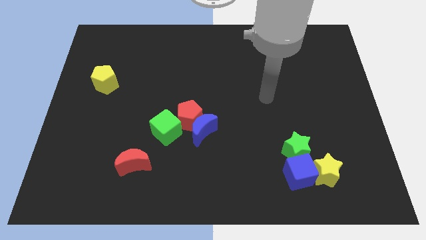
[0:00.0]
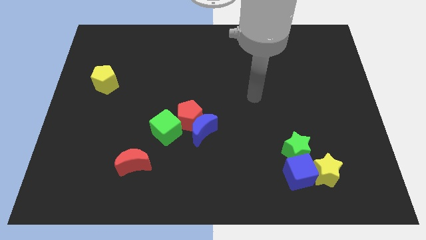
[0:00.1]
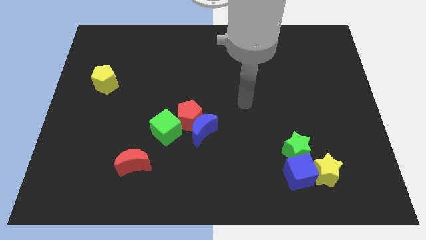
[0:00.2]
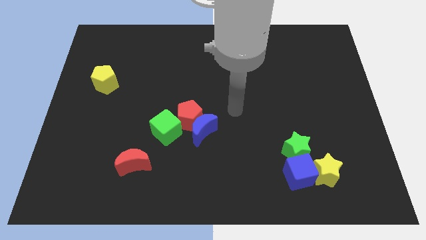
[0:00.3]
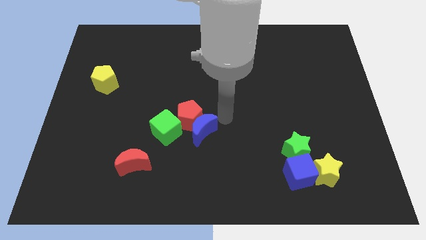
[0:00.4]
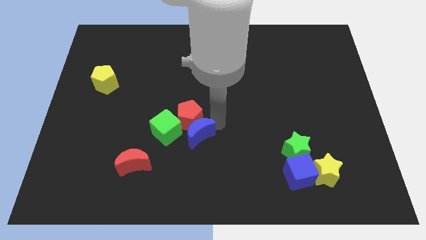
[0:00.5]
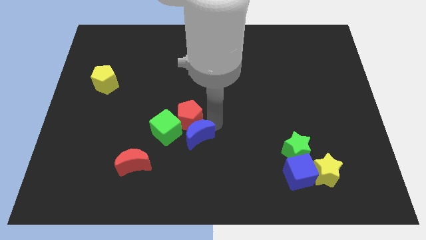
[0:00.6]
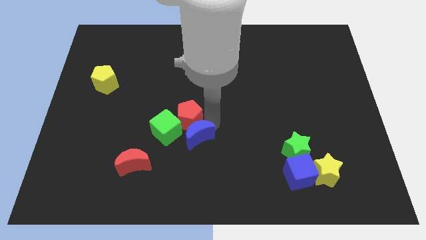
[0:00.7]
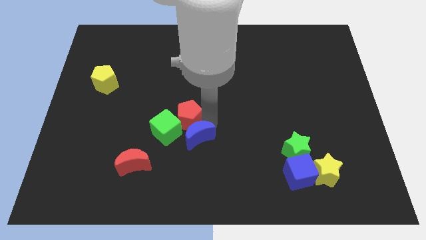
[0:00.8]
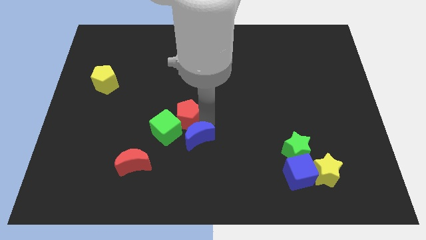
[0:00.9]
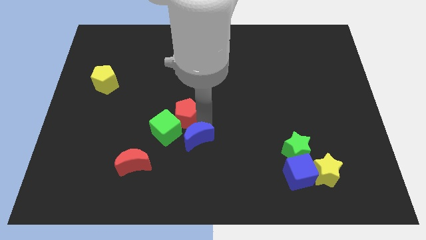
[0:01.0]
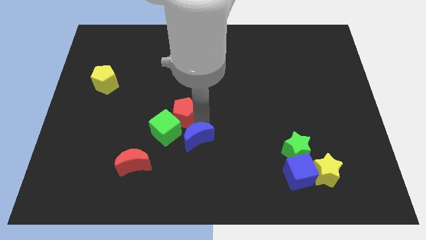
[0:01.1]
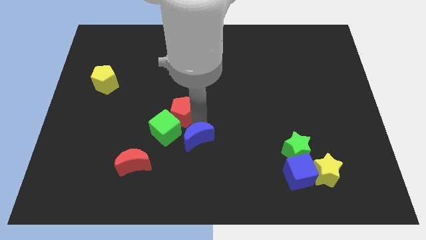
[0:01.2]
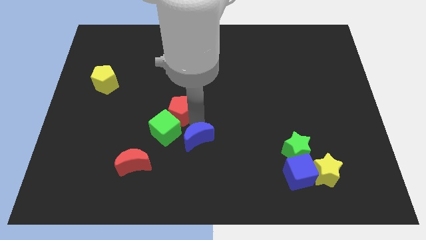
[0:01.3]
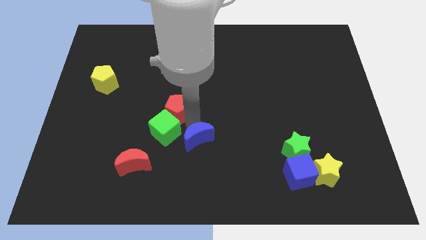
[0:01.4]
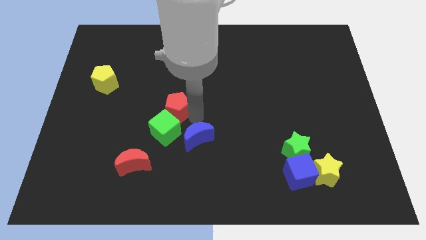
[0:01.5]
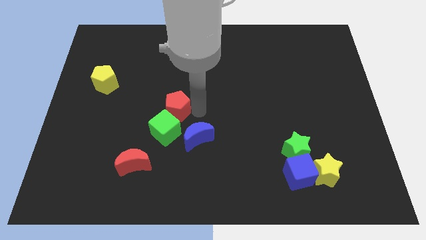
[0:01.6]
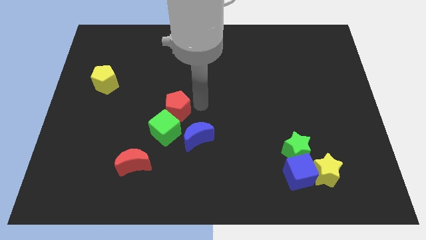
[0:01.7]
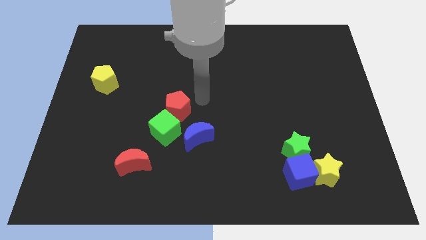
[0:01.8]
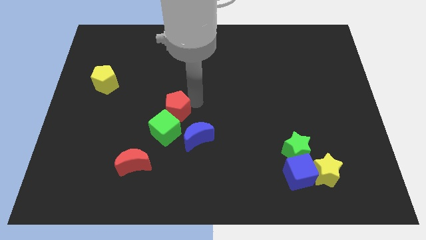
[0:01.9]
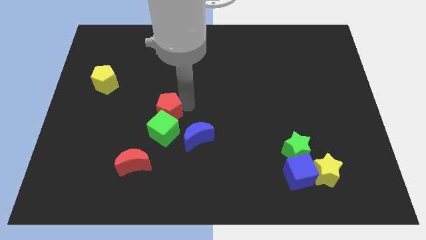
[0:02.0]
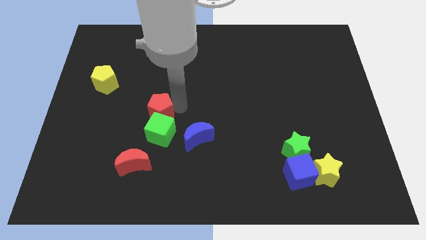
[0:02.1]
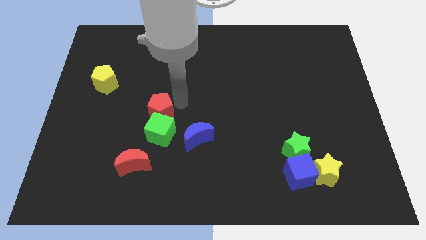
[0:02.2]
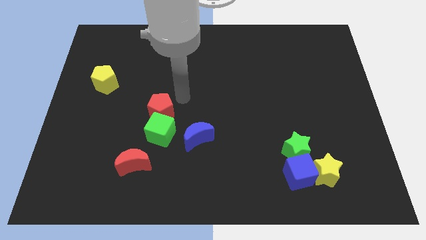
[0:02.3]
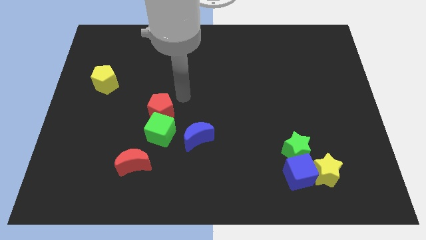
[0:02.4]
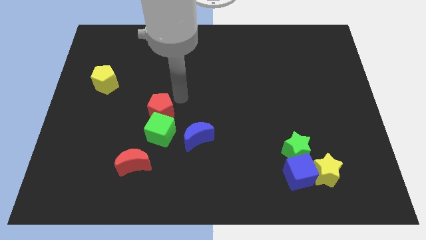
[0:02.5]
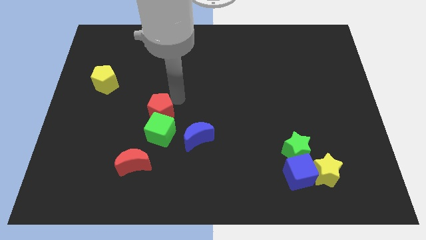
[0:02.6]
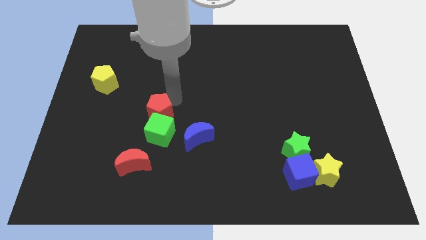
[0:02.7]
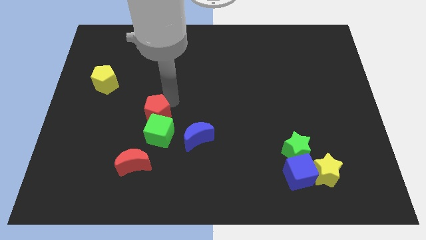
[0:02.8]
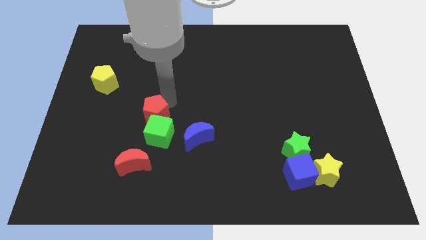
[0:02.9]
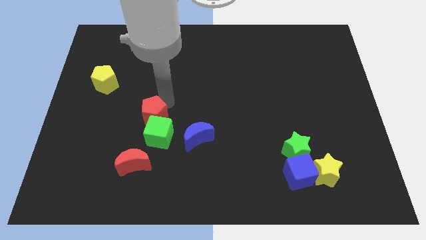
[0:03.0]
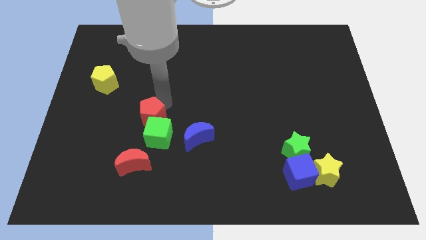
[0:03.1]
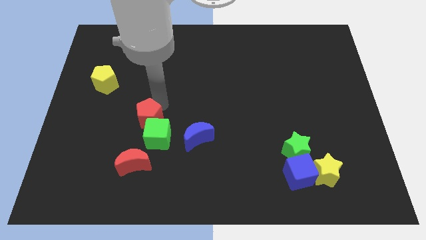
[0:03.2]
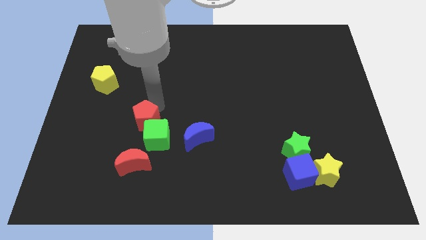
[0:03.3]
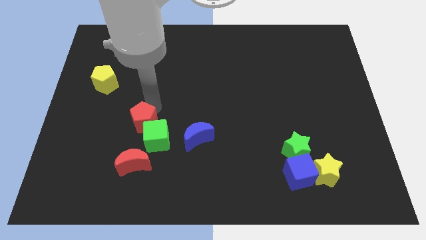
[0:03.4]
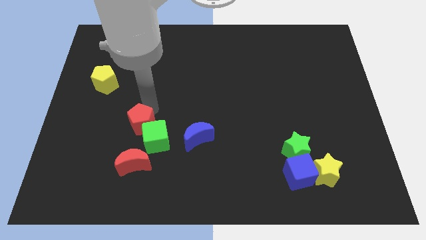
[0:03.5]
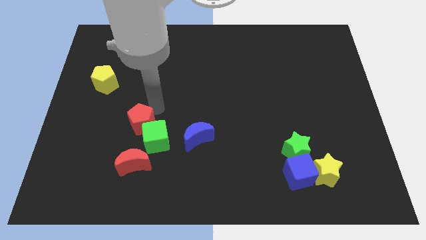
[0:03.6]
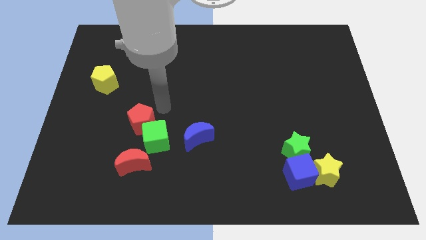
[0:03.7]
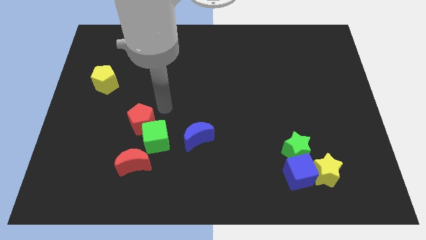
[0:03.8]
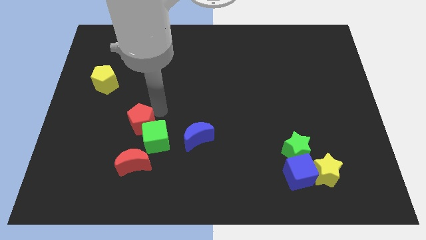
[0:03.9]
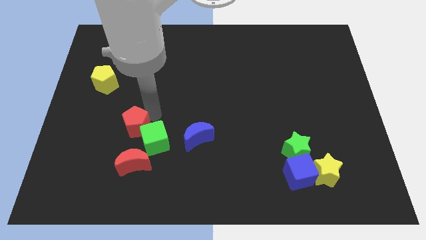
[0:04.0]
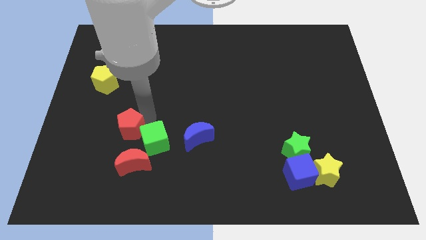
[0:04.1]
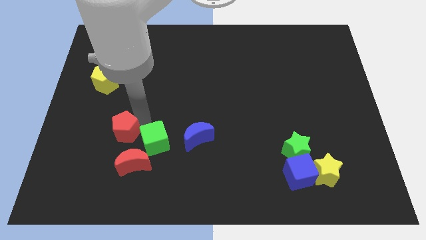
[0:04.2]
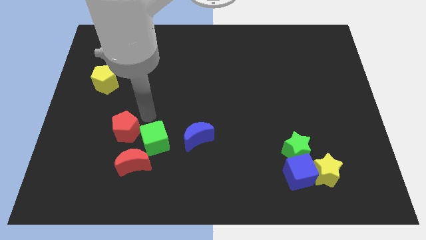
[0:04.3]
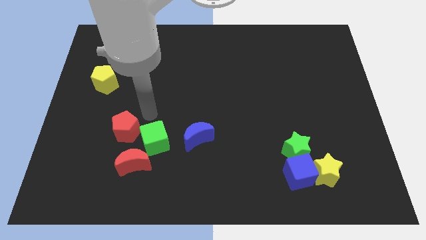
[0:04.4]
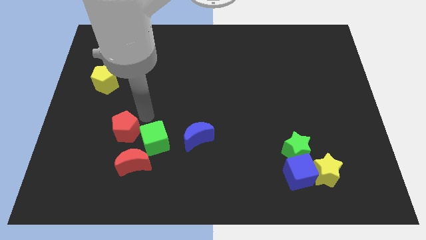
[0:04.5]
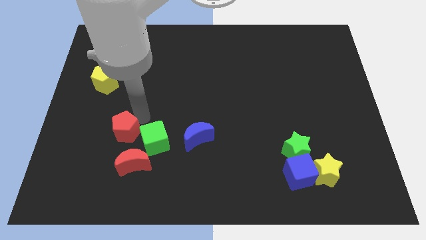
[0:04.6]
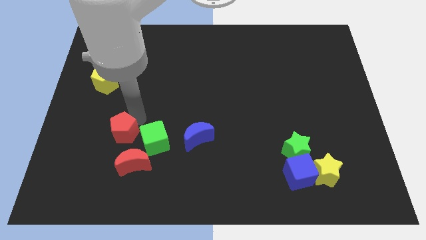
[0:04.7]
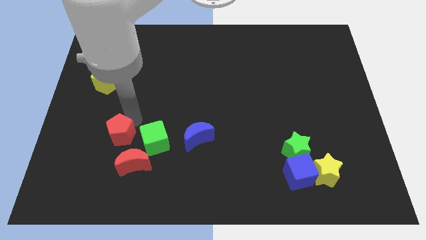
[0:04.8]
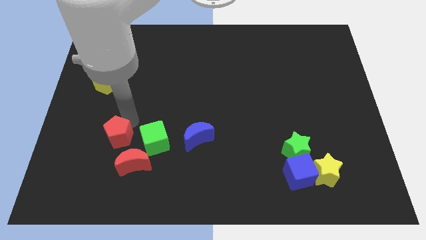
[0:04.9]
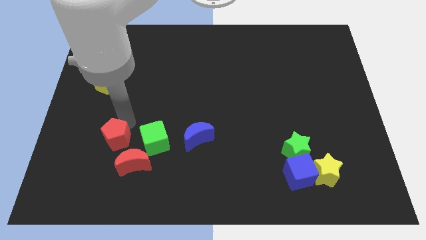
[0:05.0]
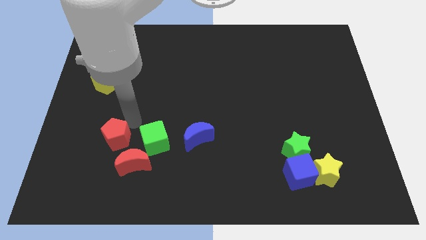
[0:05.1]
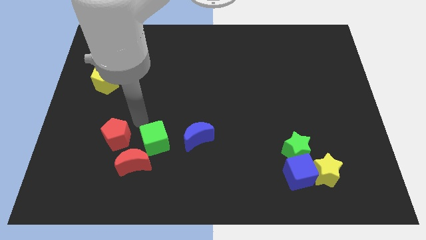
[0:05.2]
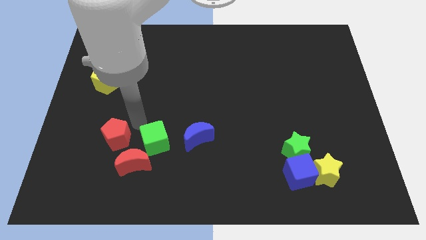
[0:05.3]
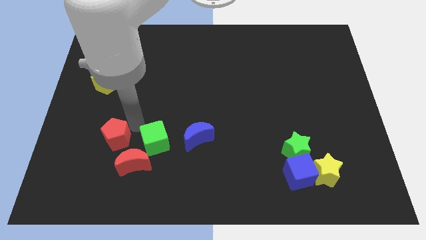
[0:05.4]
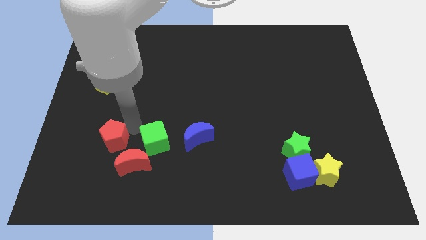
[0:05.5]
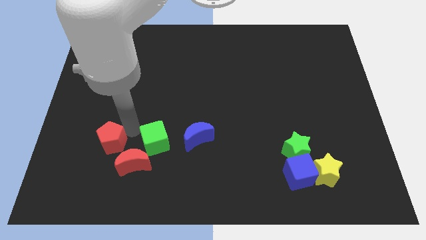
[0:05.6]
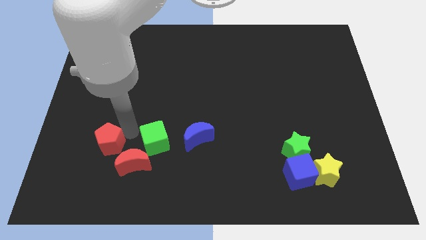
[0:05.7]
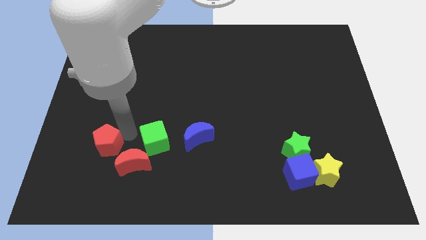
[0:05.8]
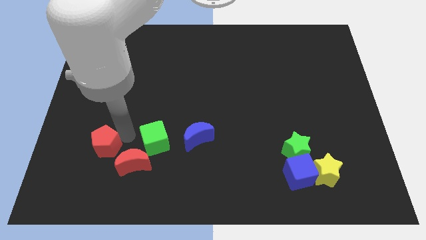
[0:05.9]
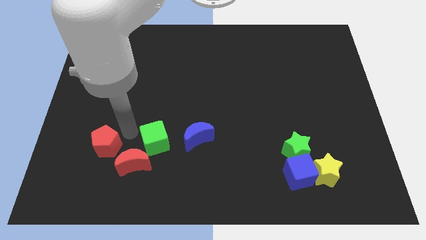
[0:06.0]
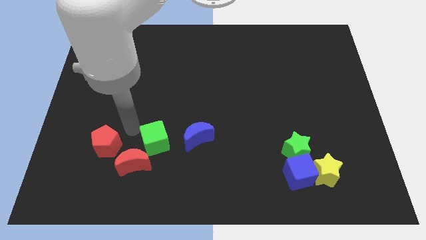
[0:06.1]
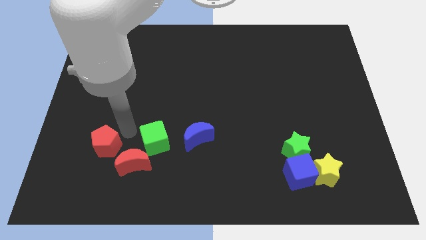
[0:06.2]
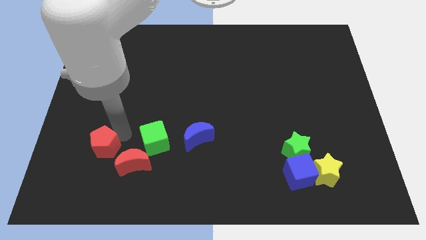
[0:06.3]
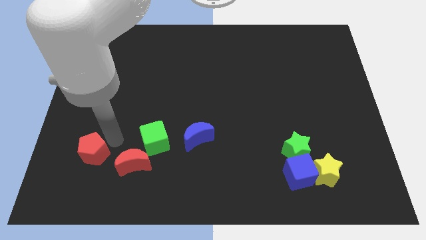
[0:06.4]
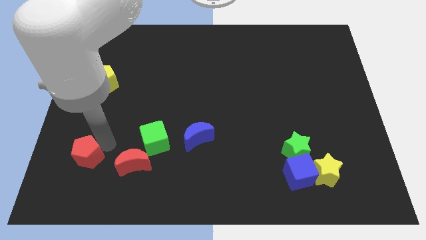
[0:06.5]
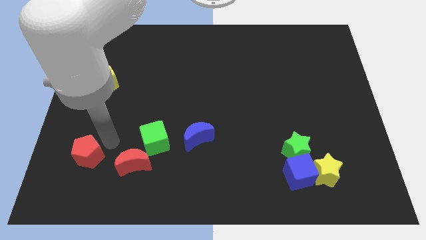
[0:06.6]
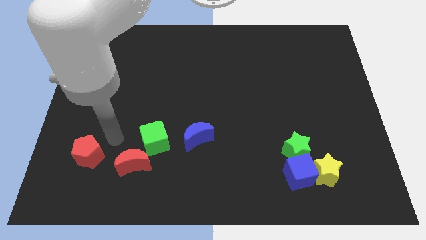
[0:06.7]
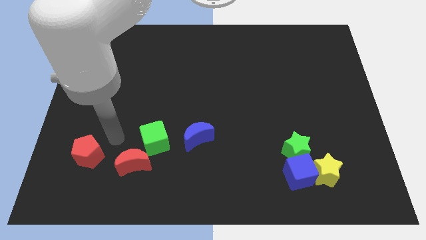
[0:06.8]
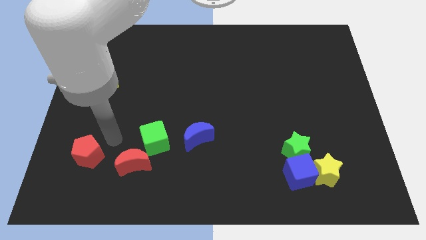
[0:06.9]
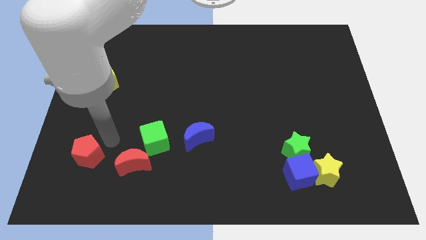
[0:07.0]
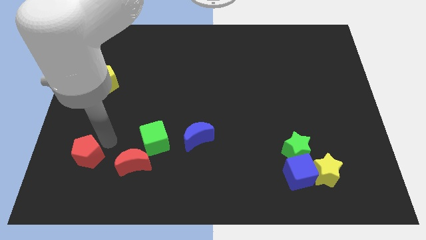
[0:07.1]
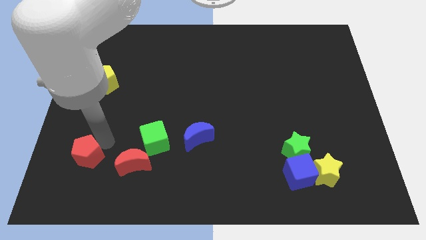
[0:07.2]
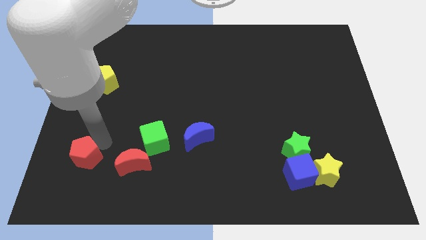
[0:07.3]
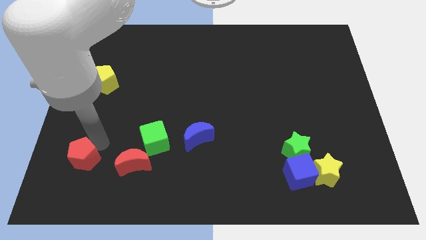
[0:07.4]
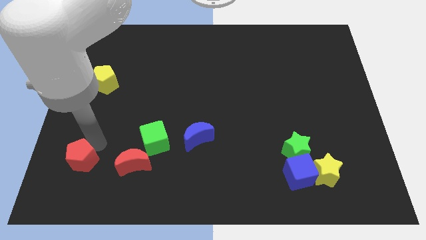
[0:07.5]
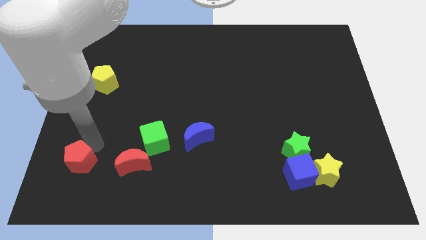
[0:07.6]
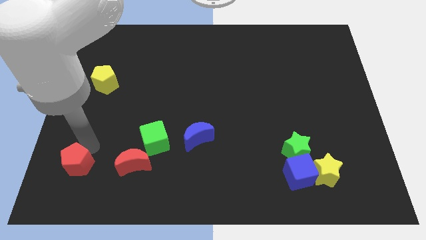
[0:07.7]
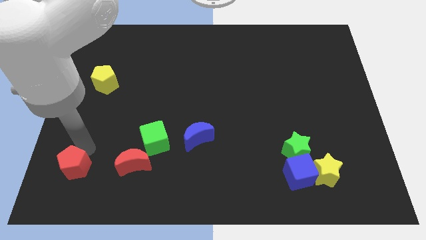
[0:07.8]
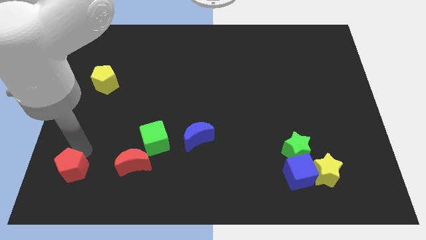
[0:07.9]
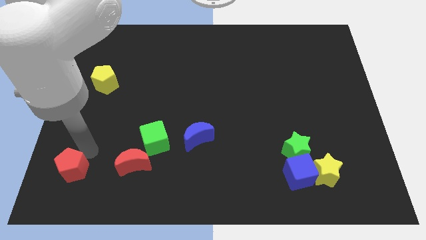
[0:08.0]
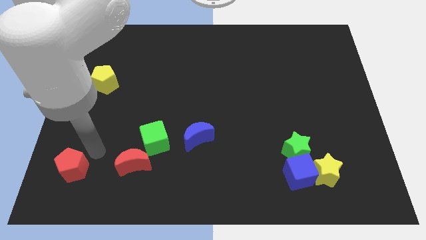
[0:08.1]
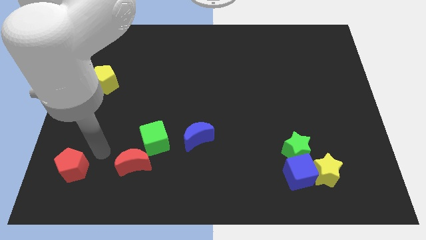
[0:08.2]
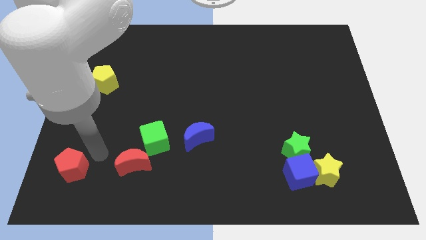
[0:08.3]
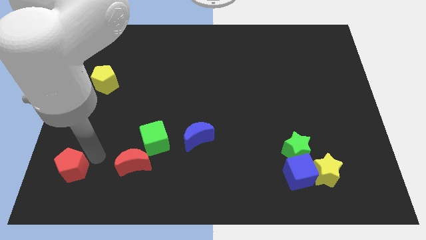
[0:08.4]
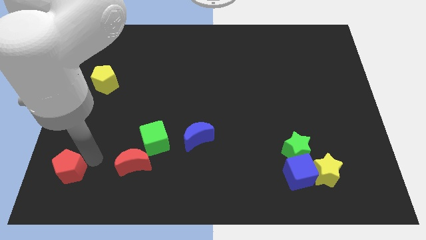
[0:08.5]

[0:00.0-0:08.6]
push the red pentagon to the bottom left of the board
